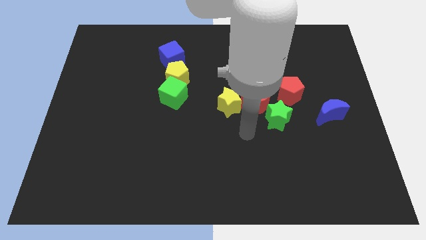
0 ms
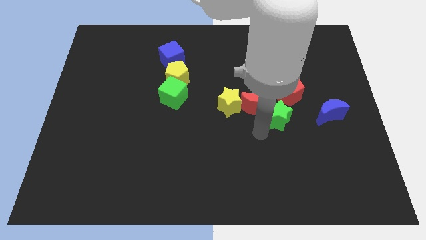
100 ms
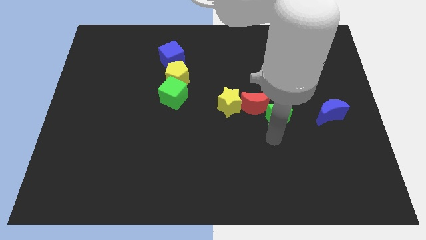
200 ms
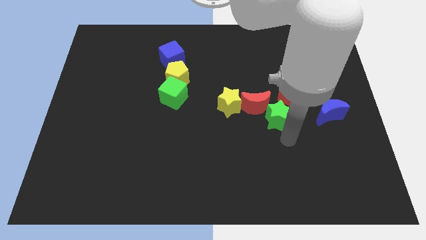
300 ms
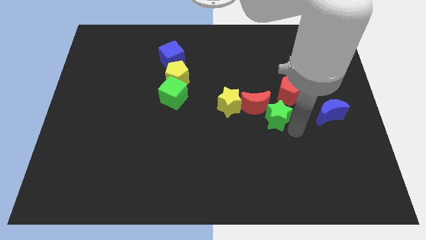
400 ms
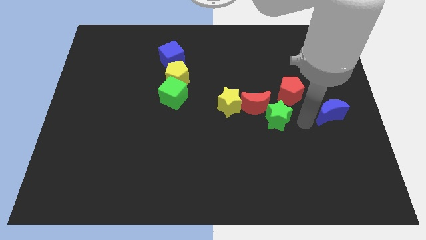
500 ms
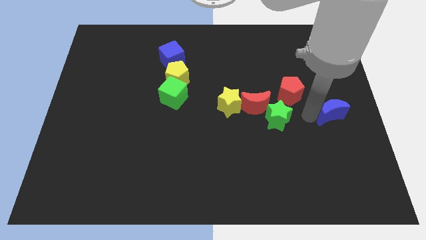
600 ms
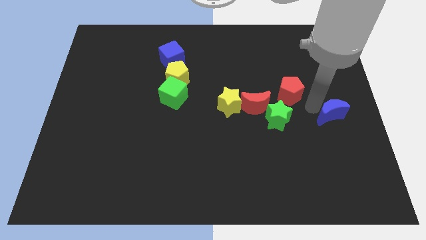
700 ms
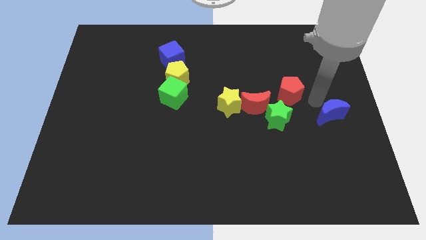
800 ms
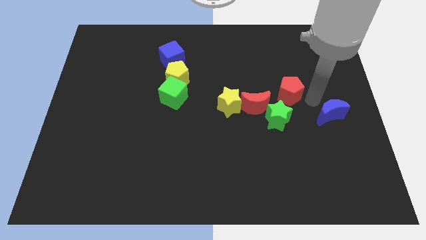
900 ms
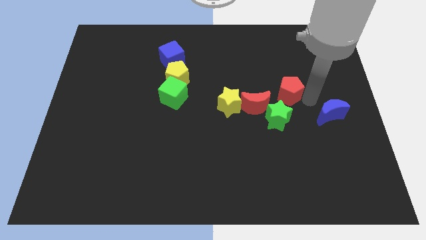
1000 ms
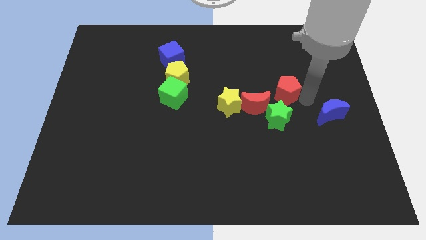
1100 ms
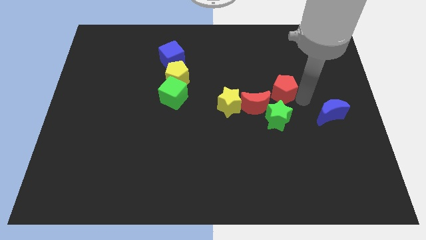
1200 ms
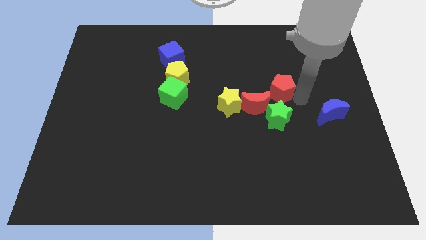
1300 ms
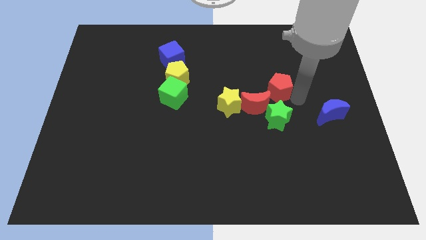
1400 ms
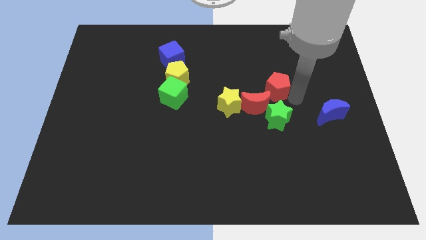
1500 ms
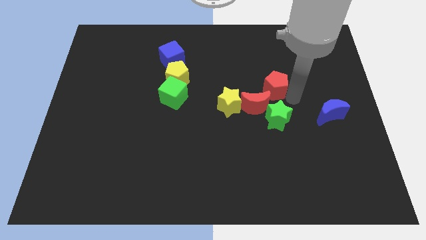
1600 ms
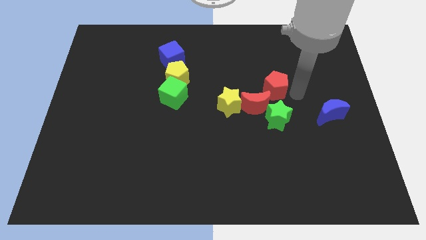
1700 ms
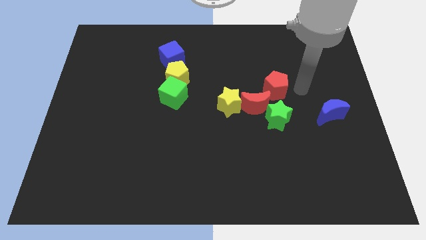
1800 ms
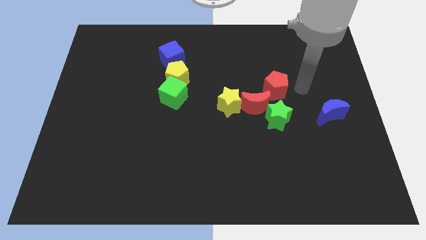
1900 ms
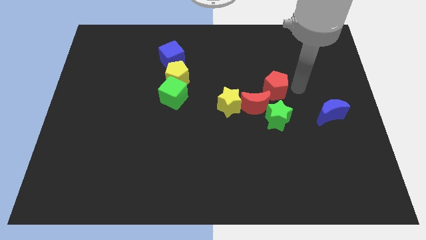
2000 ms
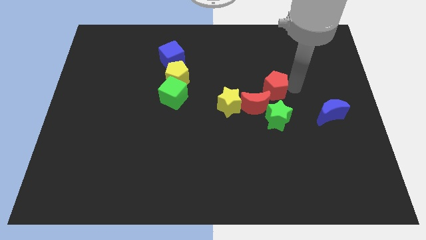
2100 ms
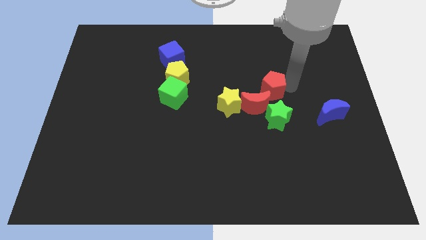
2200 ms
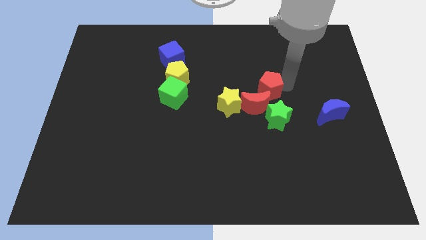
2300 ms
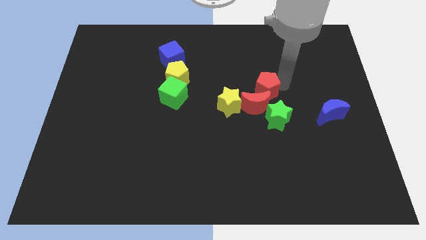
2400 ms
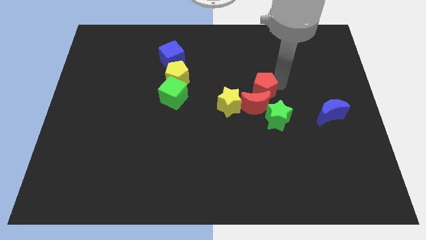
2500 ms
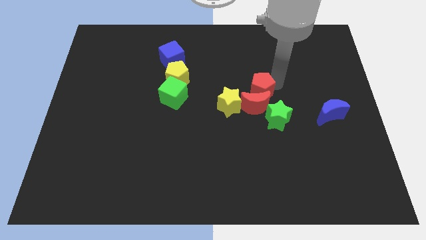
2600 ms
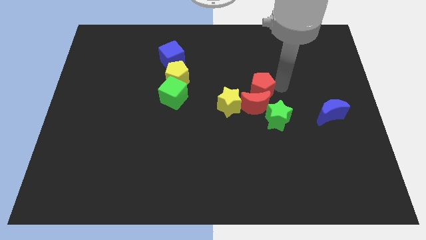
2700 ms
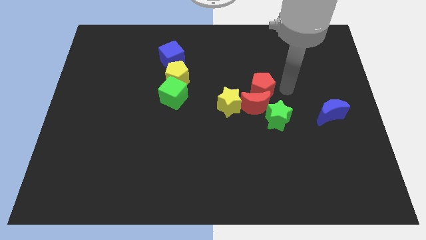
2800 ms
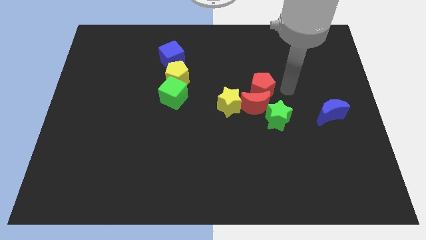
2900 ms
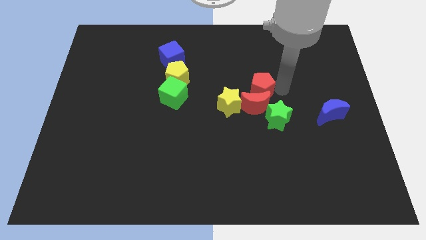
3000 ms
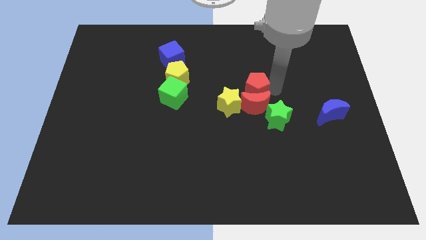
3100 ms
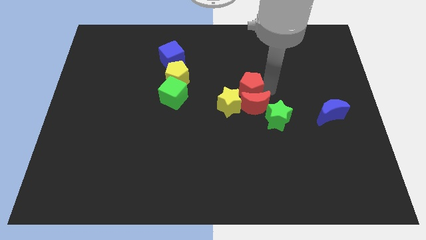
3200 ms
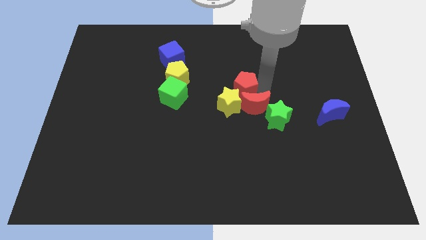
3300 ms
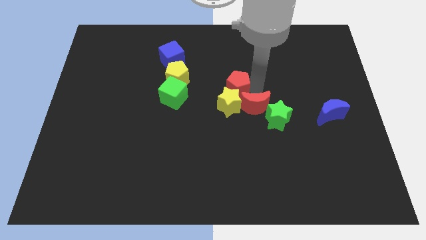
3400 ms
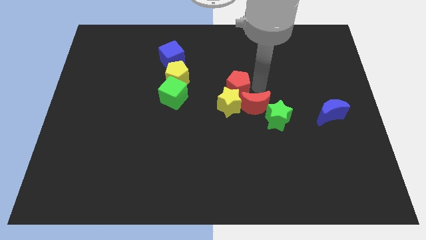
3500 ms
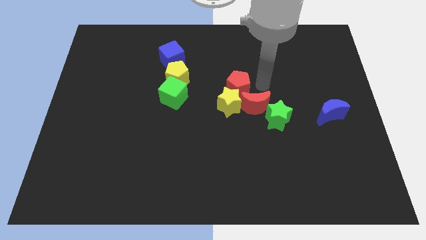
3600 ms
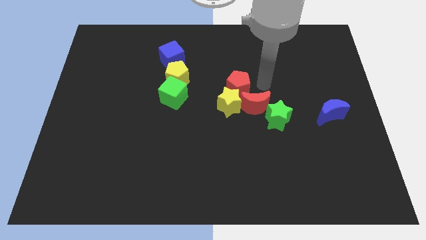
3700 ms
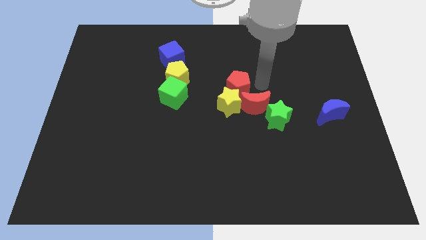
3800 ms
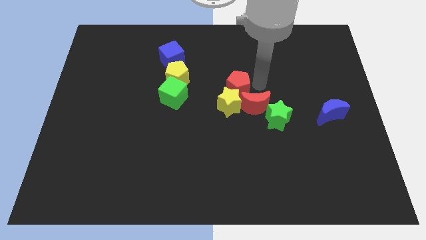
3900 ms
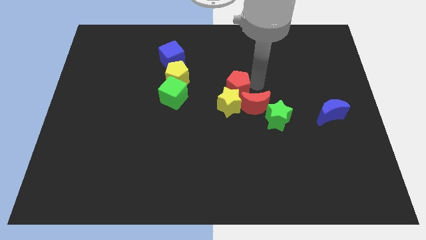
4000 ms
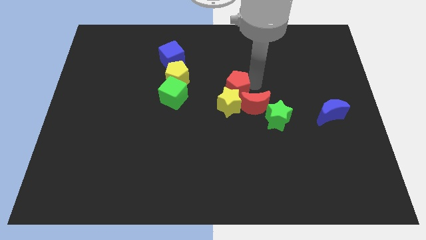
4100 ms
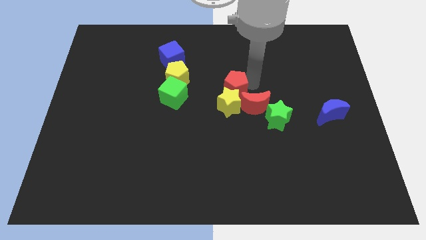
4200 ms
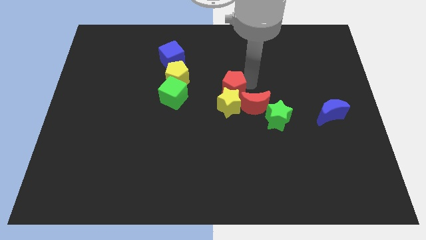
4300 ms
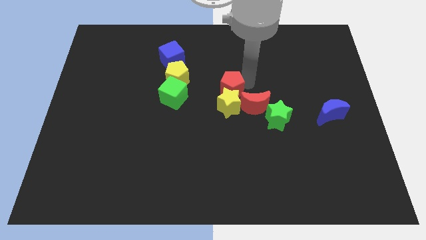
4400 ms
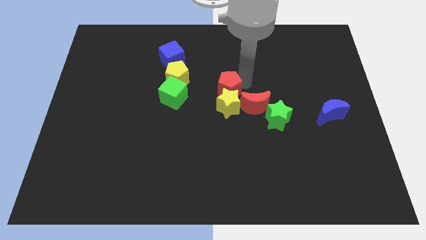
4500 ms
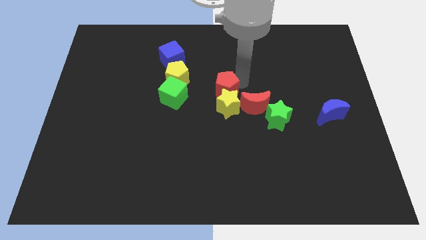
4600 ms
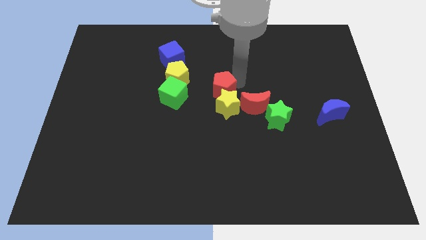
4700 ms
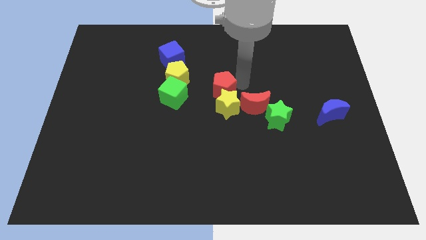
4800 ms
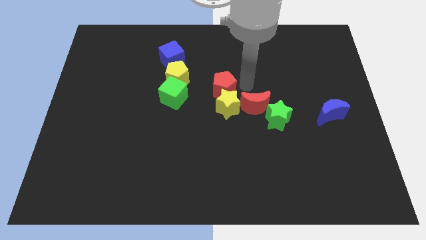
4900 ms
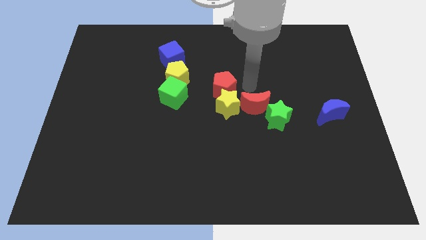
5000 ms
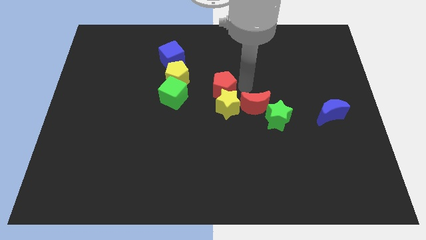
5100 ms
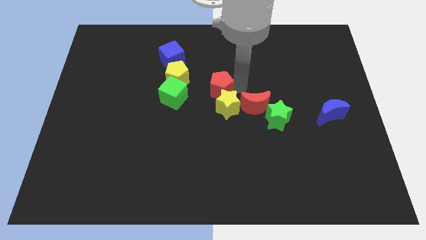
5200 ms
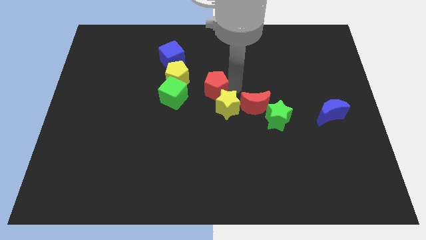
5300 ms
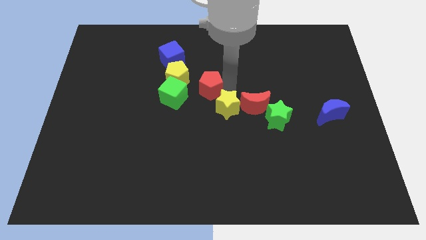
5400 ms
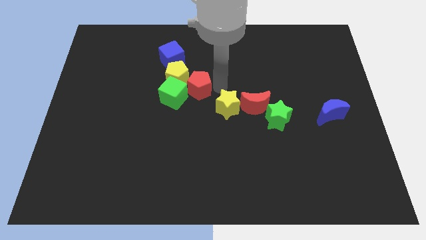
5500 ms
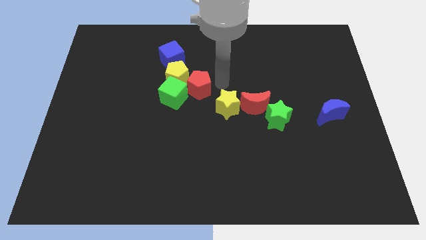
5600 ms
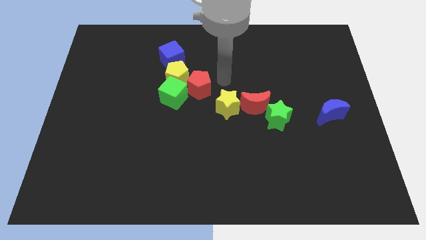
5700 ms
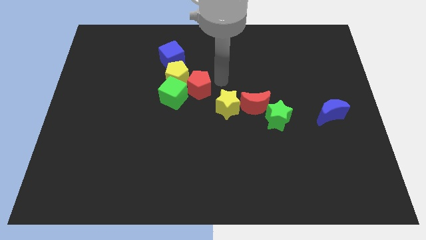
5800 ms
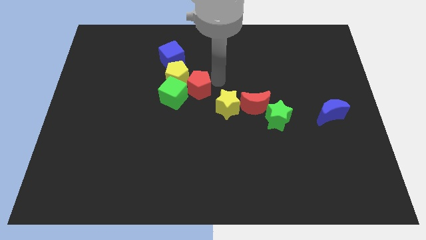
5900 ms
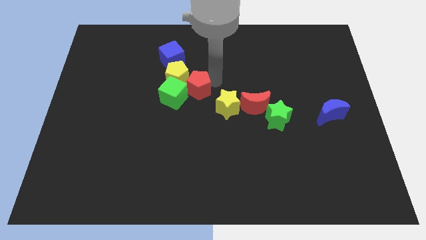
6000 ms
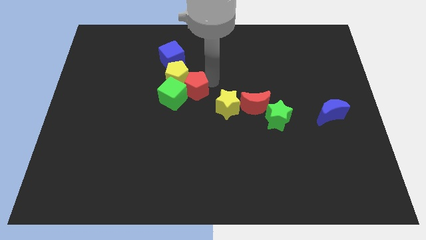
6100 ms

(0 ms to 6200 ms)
slide the red pentagon to the green cube

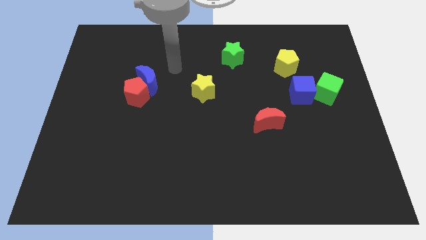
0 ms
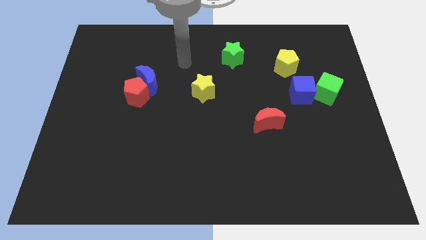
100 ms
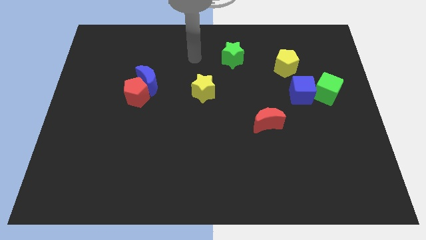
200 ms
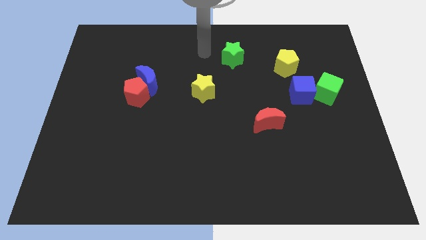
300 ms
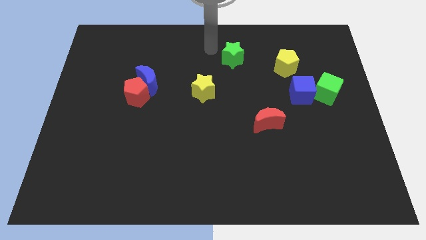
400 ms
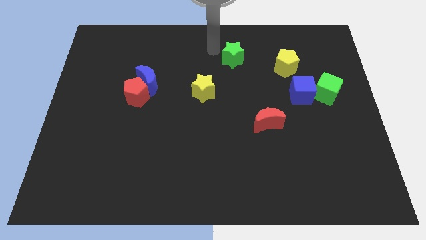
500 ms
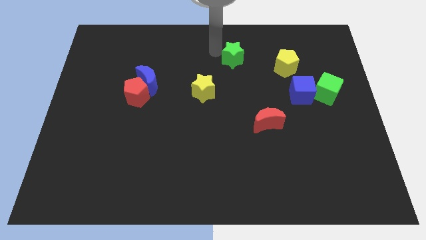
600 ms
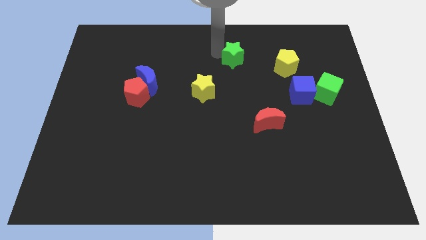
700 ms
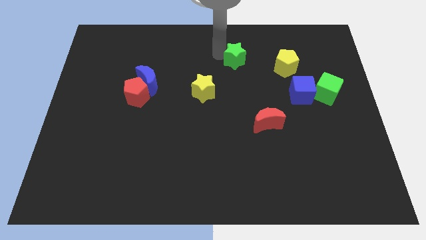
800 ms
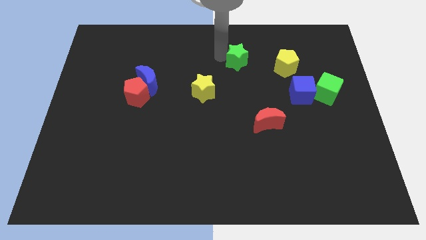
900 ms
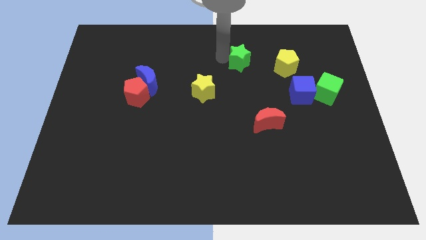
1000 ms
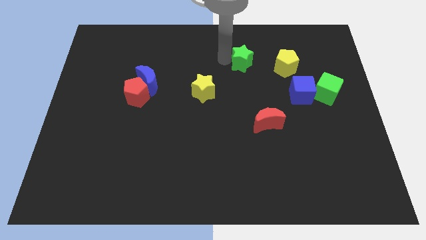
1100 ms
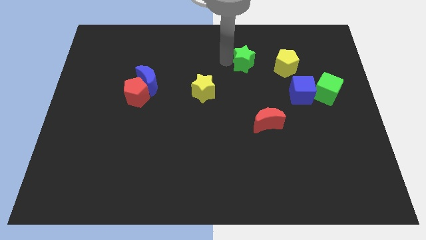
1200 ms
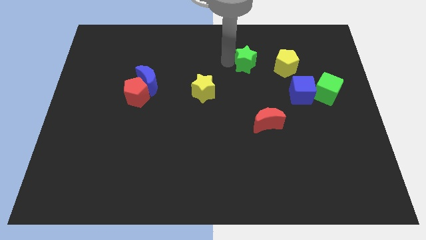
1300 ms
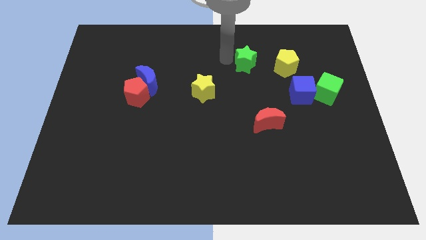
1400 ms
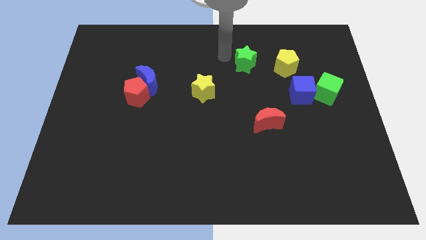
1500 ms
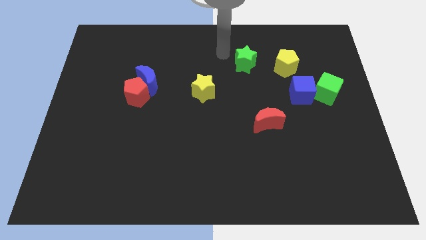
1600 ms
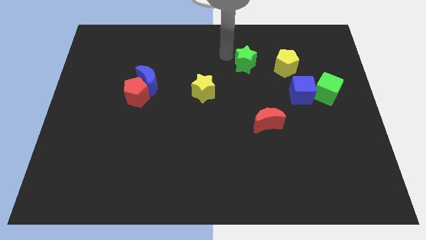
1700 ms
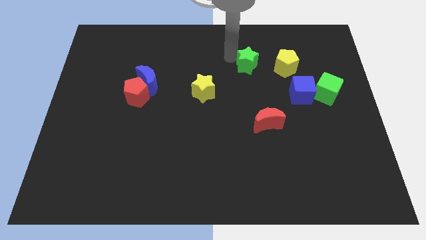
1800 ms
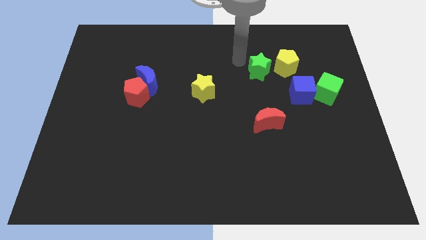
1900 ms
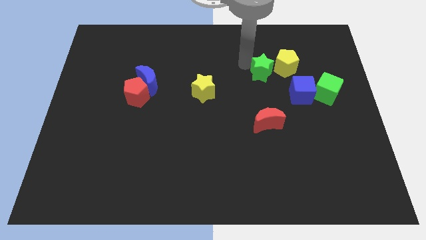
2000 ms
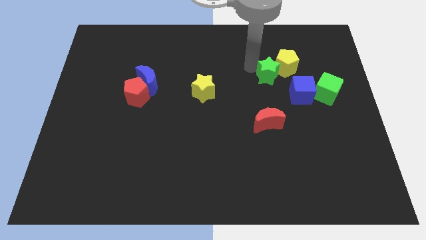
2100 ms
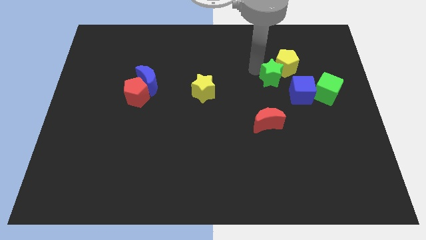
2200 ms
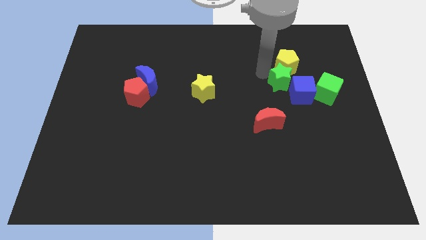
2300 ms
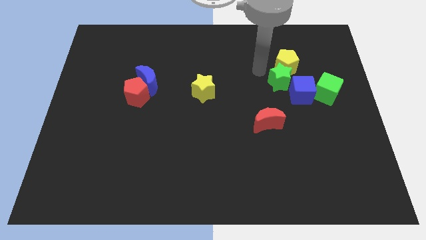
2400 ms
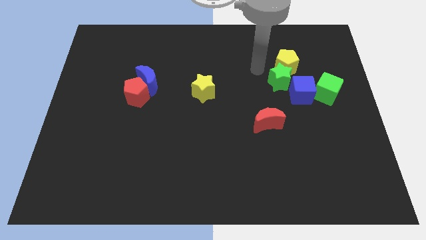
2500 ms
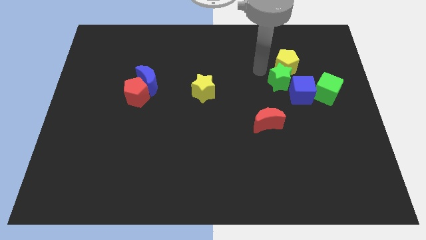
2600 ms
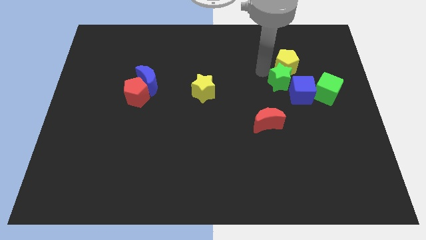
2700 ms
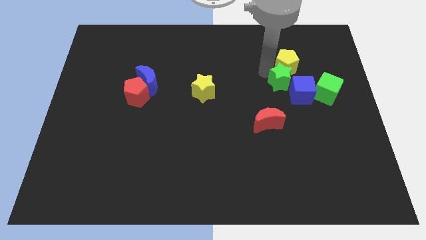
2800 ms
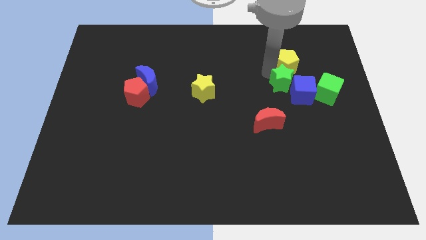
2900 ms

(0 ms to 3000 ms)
move the green star close to the blue cube
